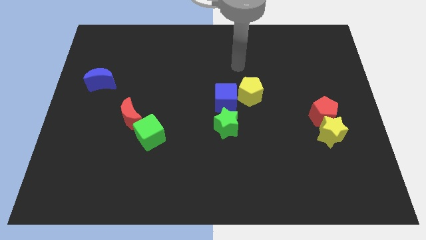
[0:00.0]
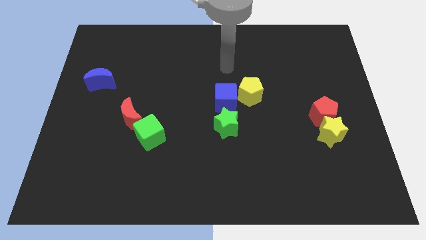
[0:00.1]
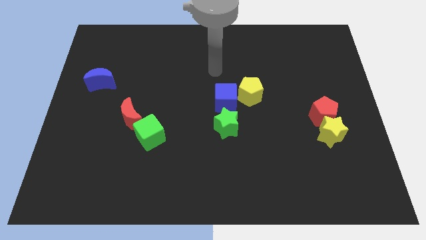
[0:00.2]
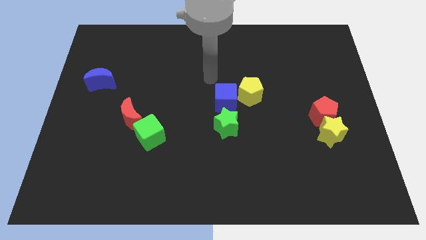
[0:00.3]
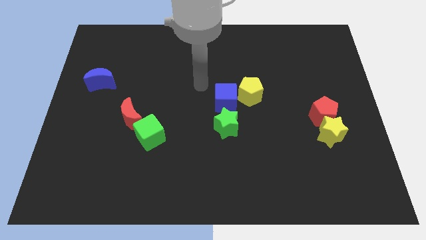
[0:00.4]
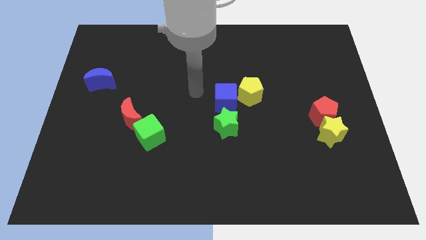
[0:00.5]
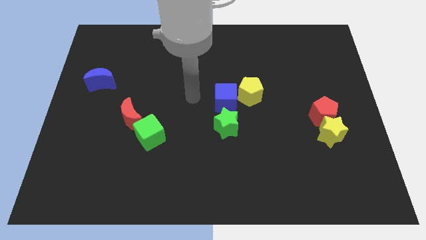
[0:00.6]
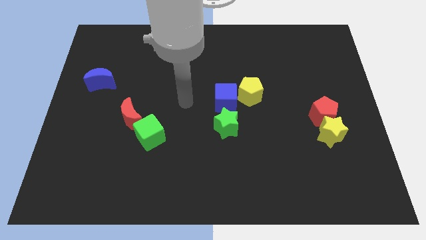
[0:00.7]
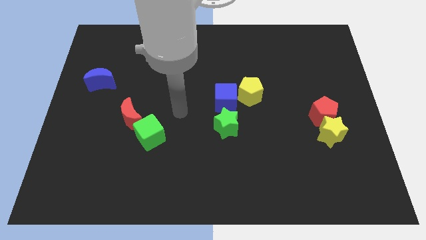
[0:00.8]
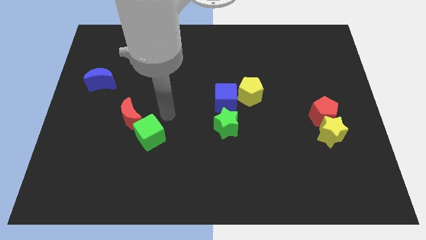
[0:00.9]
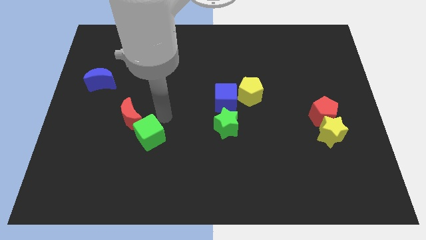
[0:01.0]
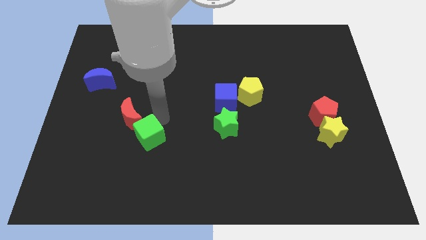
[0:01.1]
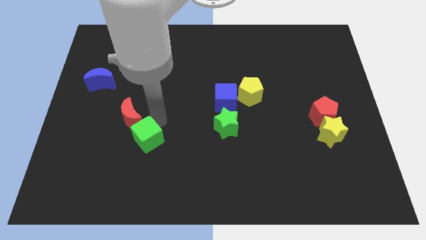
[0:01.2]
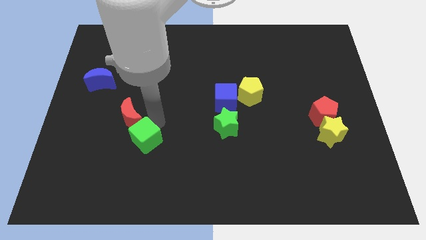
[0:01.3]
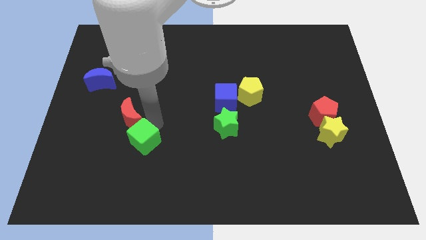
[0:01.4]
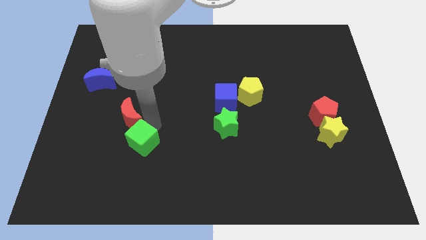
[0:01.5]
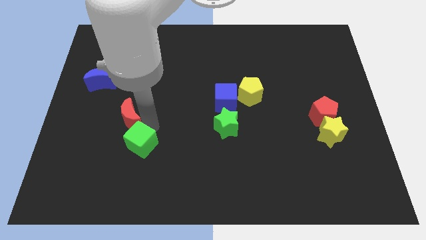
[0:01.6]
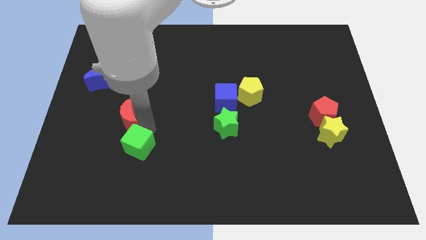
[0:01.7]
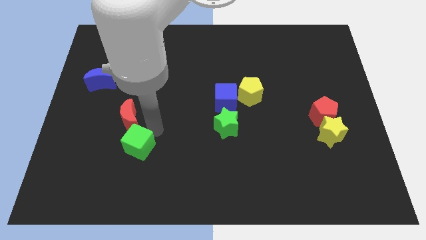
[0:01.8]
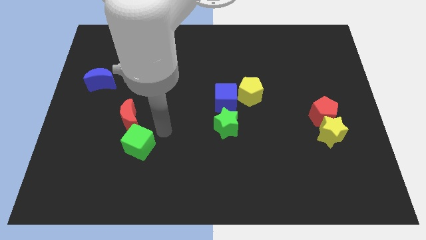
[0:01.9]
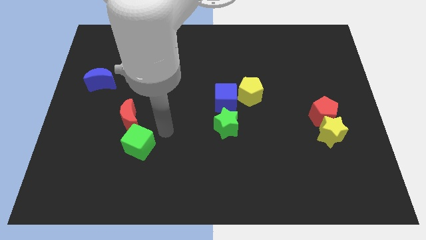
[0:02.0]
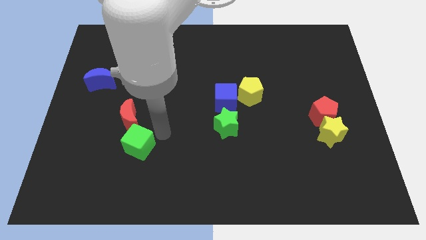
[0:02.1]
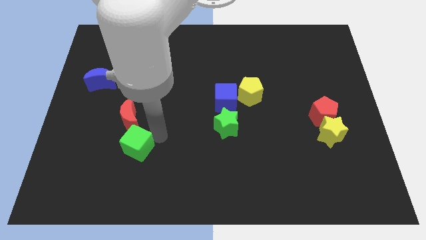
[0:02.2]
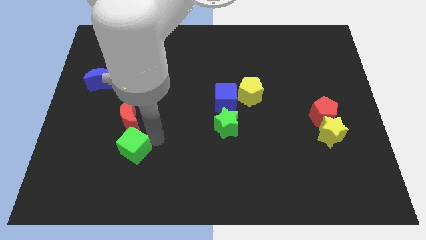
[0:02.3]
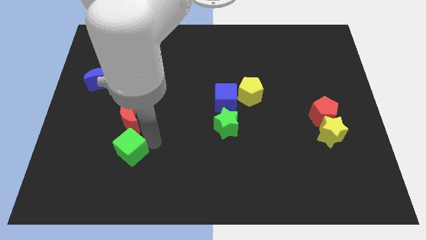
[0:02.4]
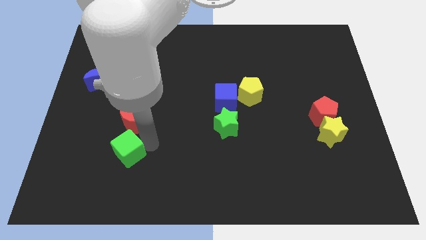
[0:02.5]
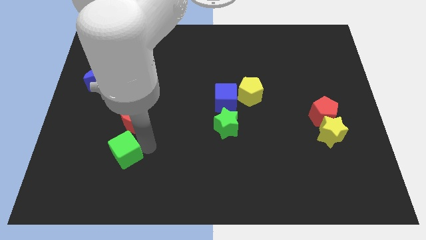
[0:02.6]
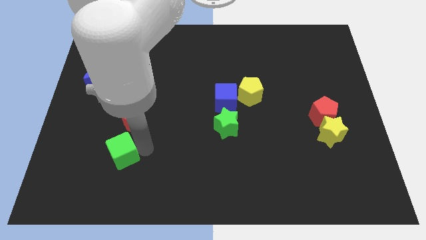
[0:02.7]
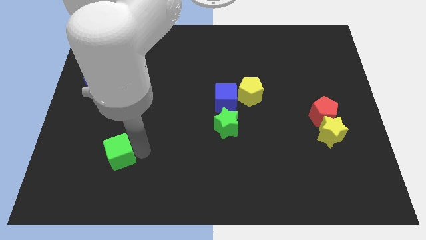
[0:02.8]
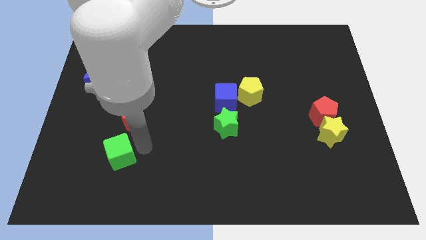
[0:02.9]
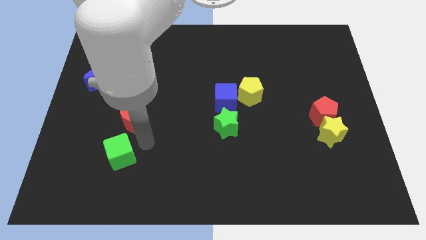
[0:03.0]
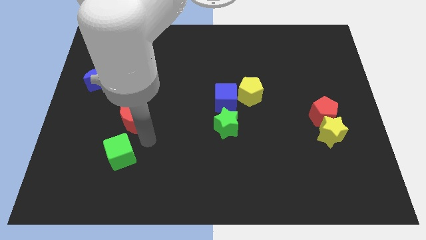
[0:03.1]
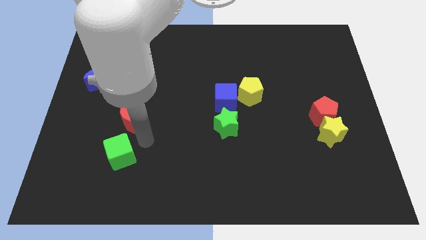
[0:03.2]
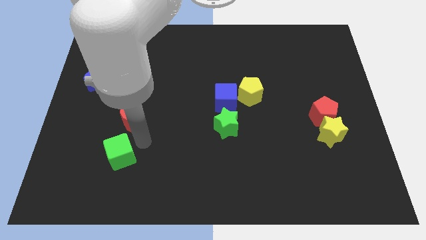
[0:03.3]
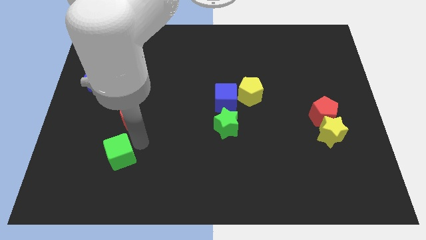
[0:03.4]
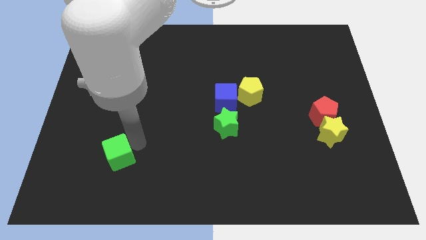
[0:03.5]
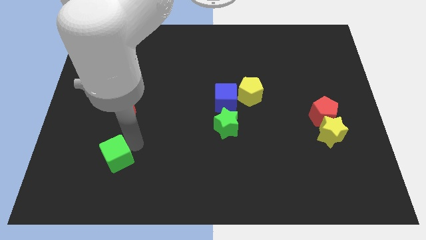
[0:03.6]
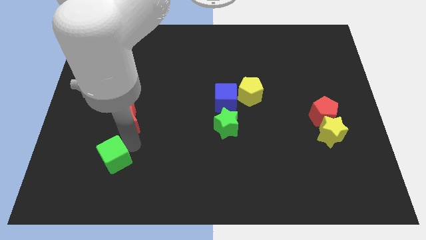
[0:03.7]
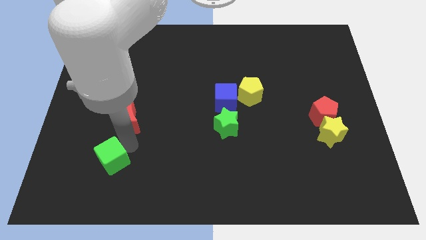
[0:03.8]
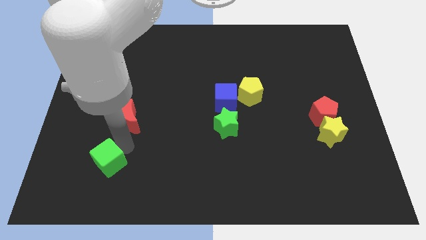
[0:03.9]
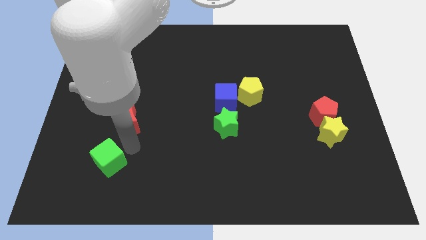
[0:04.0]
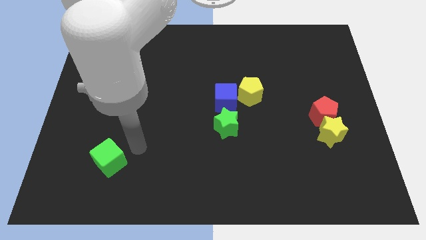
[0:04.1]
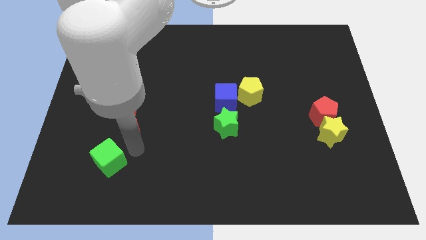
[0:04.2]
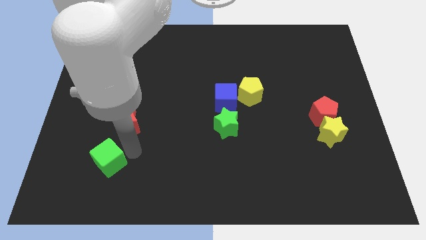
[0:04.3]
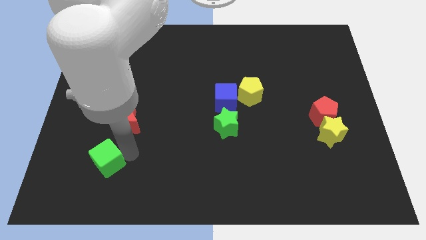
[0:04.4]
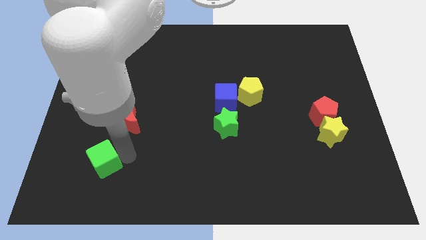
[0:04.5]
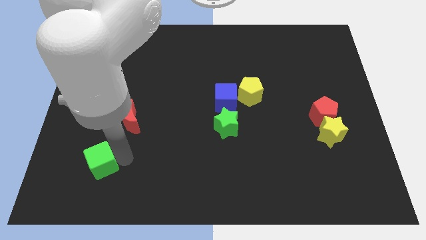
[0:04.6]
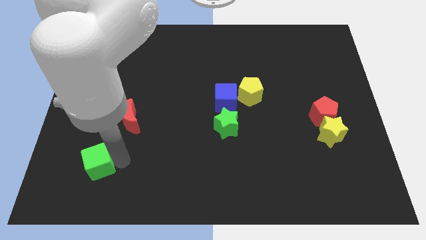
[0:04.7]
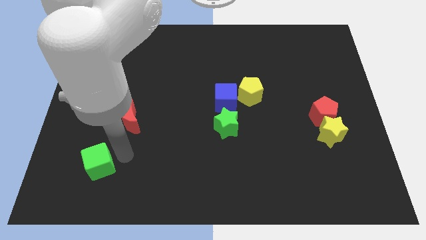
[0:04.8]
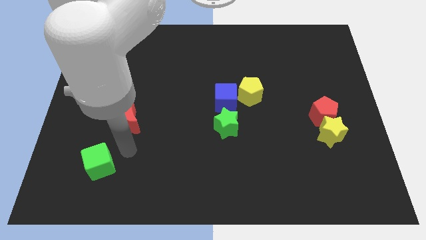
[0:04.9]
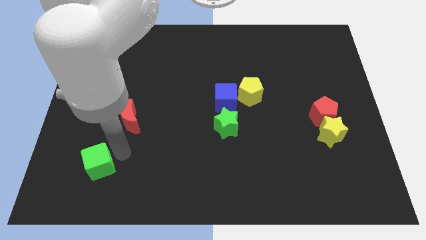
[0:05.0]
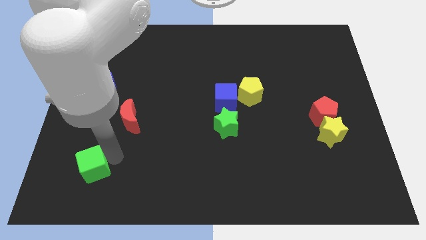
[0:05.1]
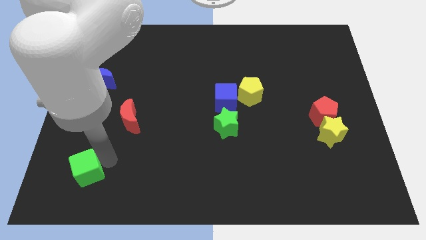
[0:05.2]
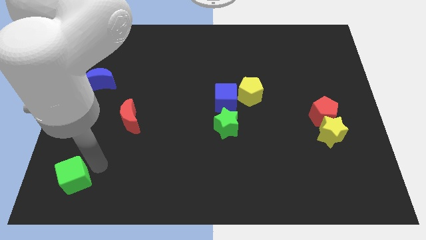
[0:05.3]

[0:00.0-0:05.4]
move the green cube to the bottom left corner

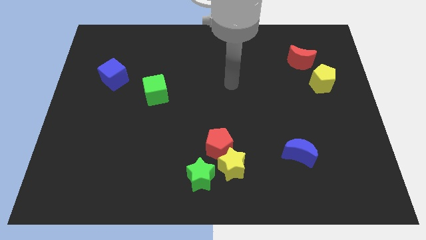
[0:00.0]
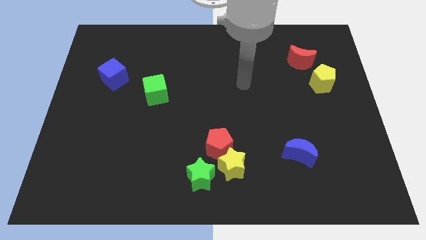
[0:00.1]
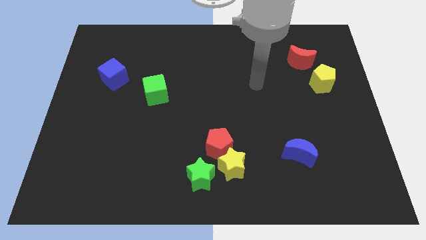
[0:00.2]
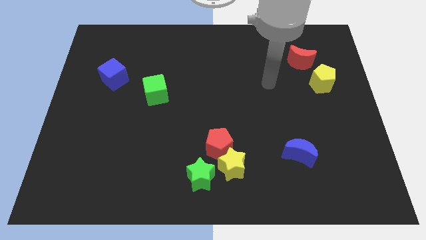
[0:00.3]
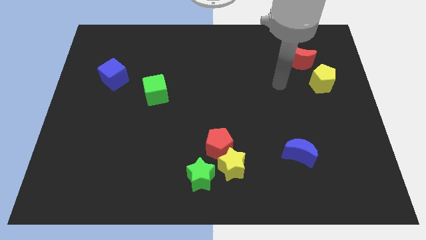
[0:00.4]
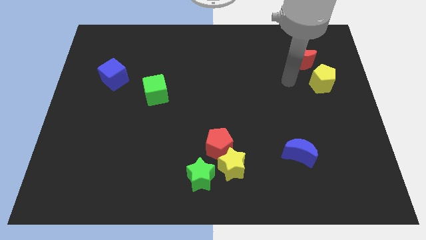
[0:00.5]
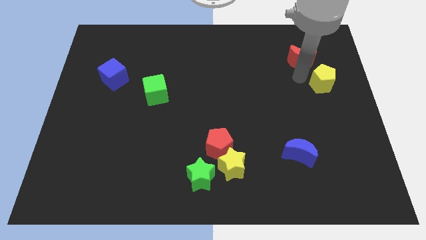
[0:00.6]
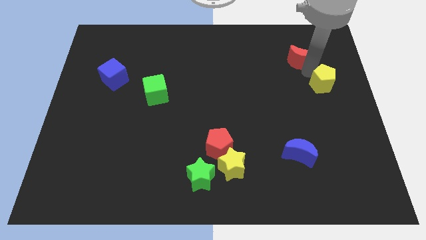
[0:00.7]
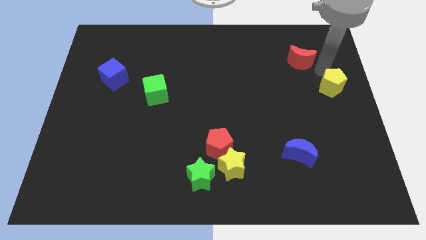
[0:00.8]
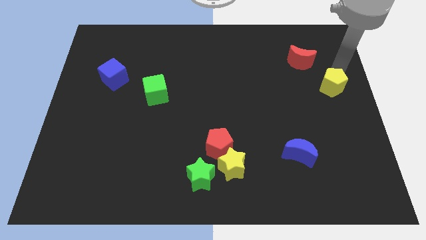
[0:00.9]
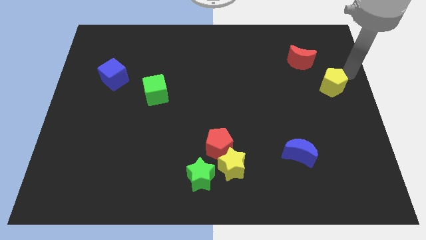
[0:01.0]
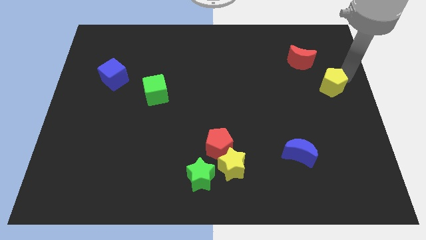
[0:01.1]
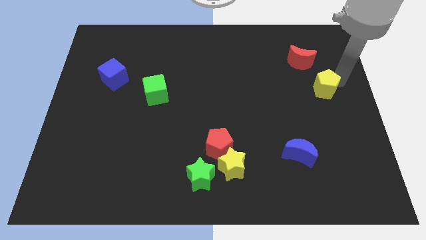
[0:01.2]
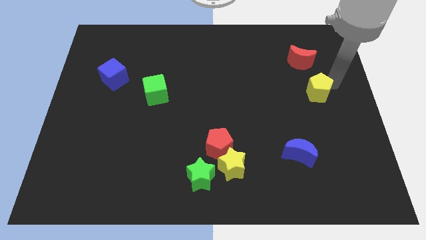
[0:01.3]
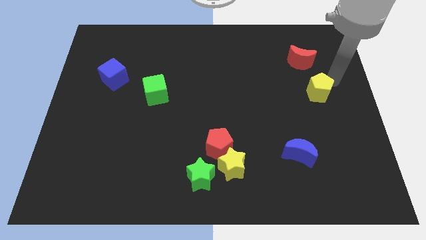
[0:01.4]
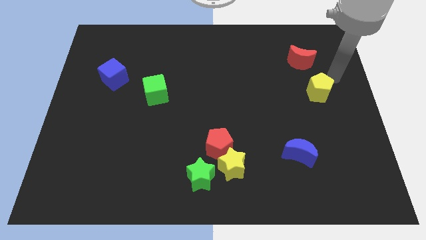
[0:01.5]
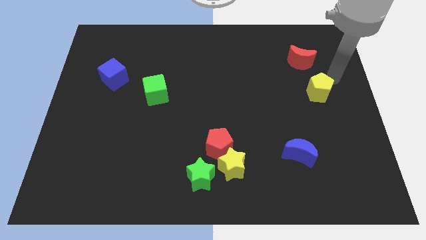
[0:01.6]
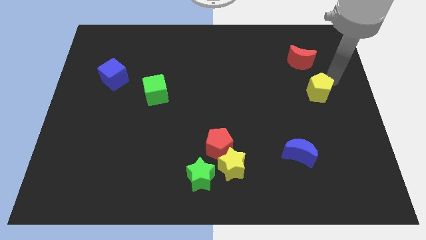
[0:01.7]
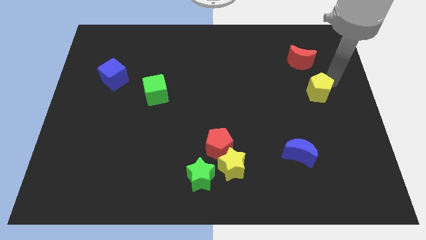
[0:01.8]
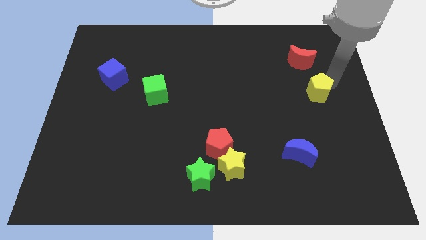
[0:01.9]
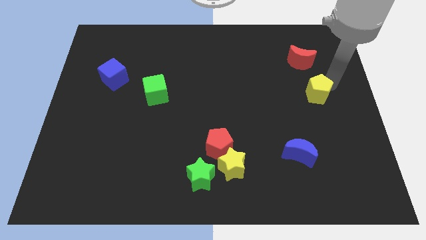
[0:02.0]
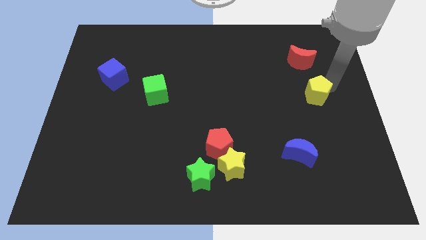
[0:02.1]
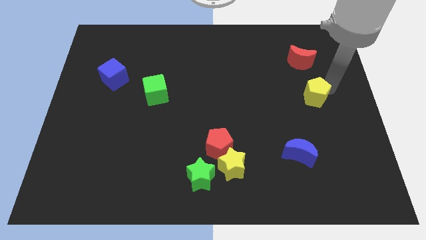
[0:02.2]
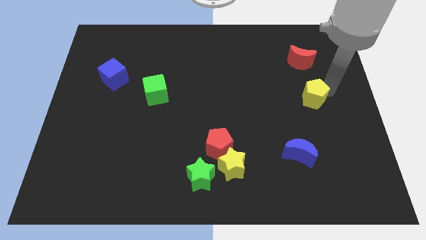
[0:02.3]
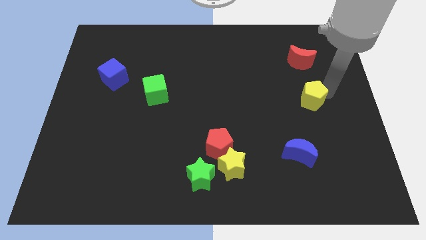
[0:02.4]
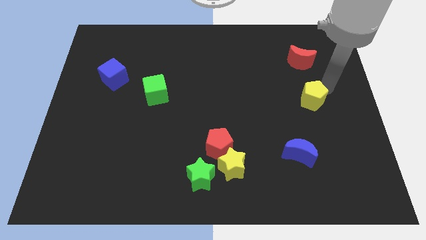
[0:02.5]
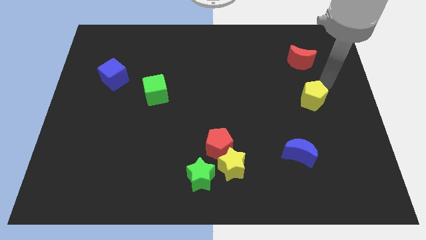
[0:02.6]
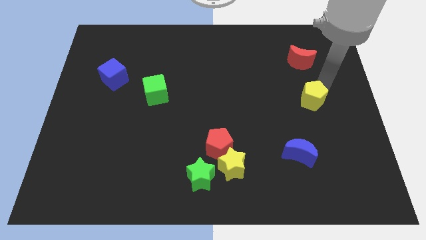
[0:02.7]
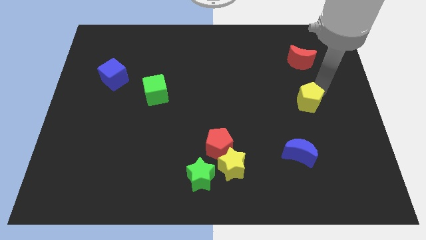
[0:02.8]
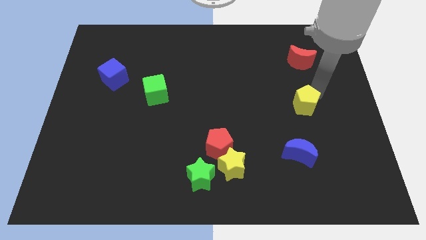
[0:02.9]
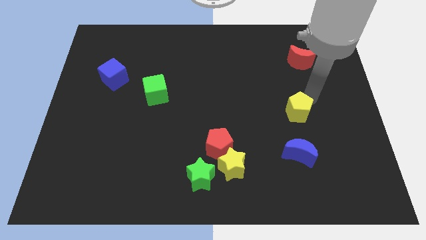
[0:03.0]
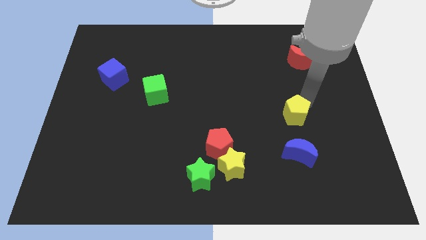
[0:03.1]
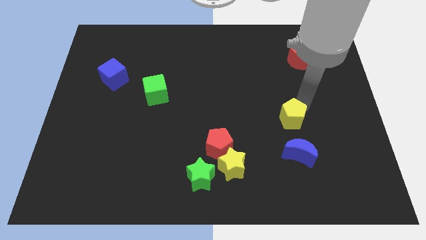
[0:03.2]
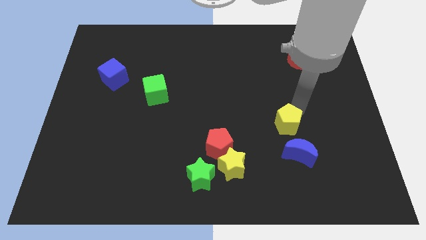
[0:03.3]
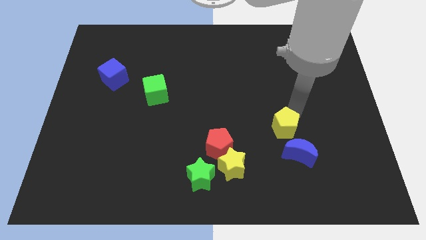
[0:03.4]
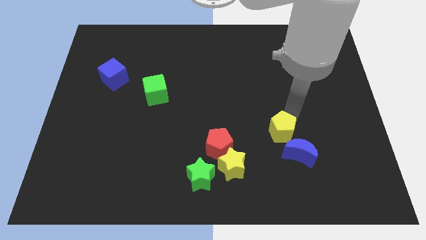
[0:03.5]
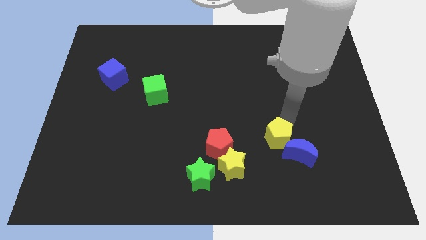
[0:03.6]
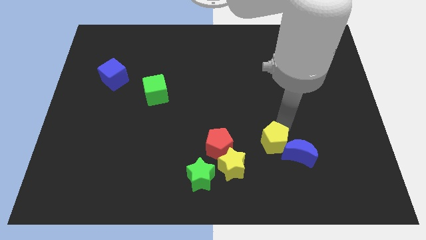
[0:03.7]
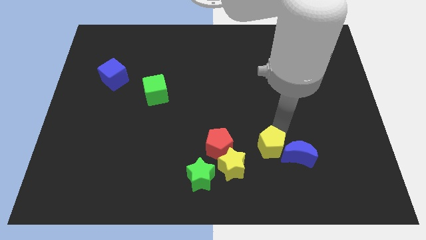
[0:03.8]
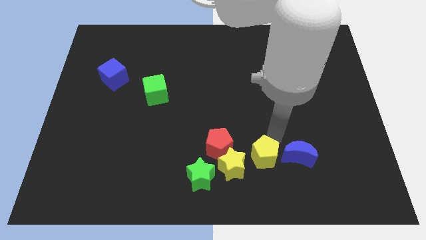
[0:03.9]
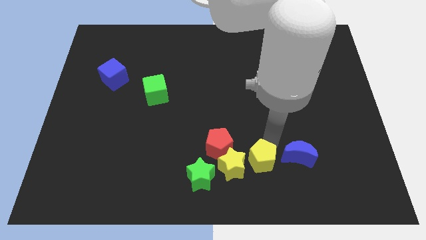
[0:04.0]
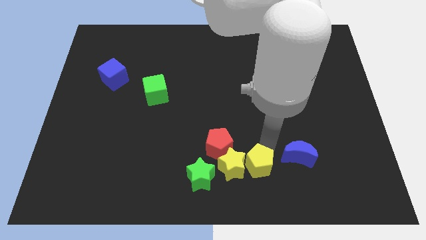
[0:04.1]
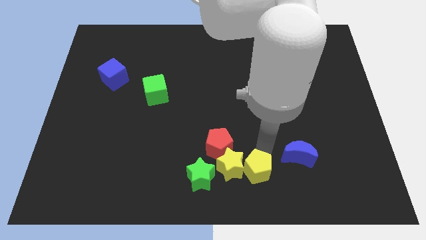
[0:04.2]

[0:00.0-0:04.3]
push the yellow pentagon to the bottom side
